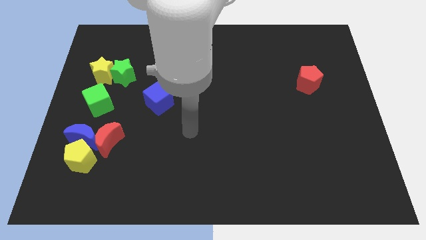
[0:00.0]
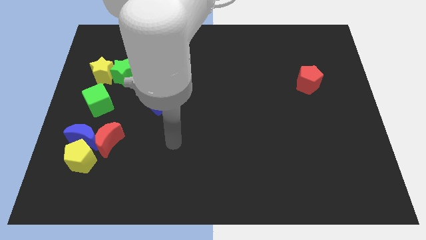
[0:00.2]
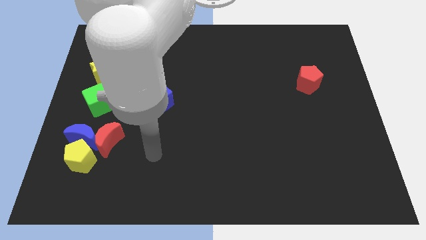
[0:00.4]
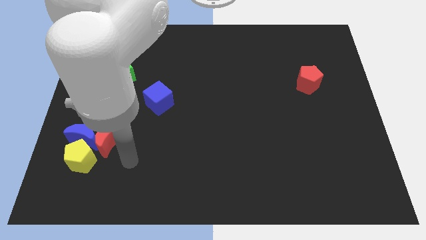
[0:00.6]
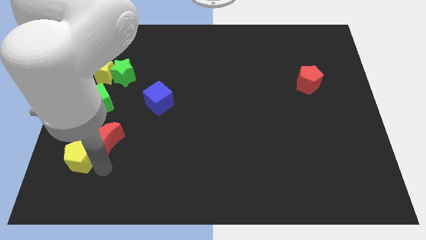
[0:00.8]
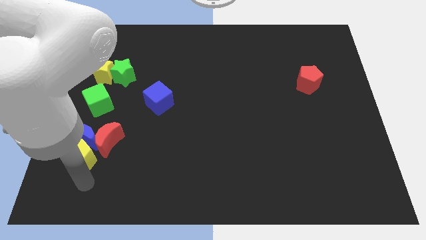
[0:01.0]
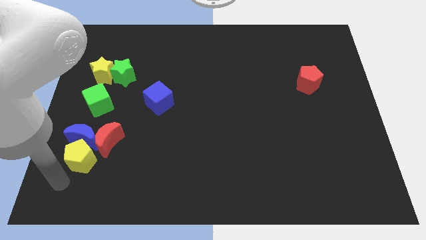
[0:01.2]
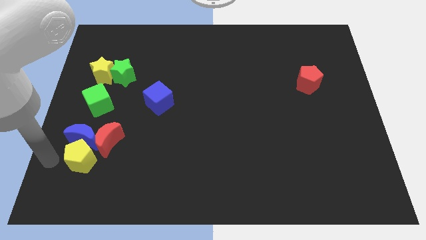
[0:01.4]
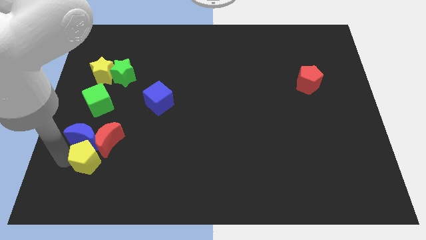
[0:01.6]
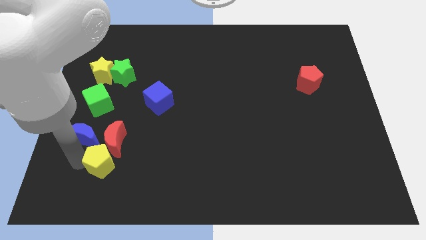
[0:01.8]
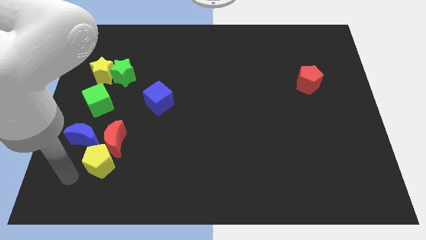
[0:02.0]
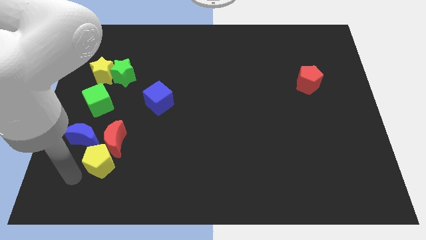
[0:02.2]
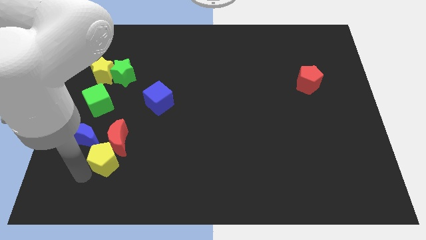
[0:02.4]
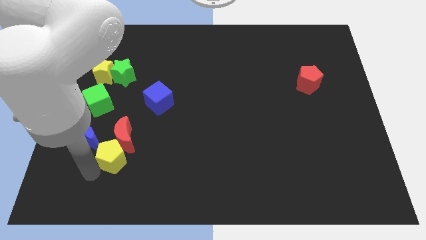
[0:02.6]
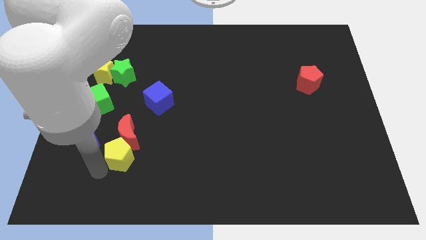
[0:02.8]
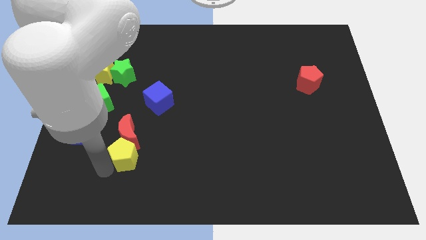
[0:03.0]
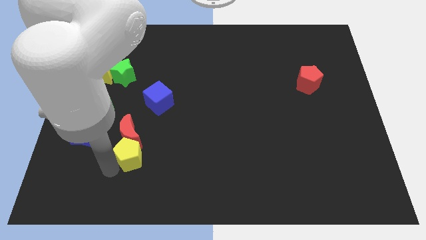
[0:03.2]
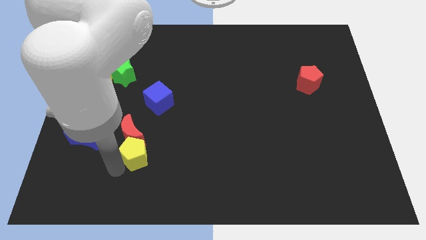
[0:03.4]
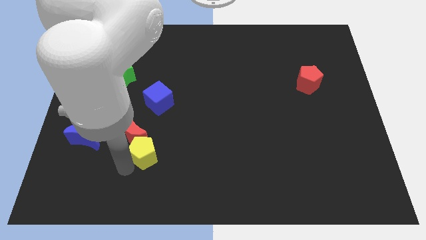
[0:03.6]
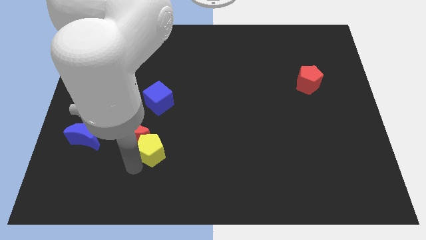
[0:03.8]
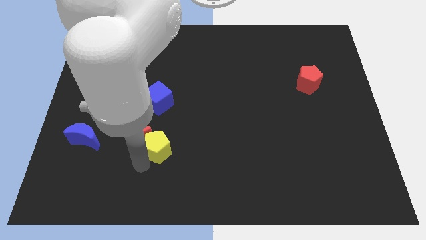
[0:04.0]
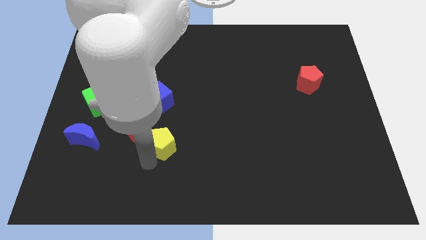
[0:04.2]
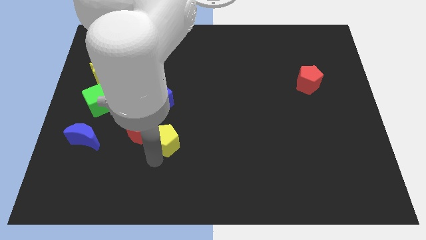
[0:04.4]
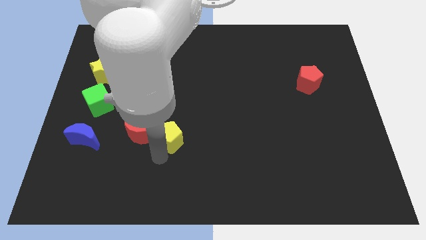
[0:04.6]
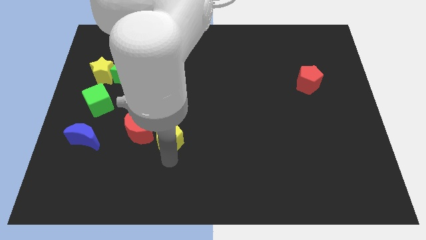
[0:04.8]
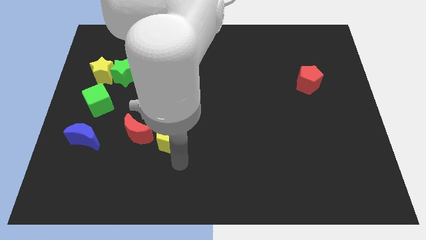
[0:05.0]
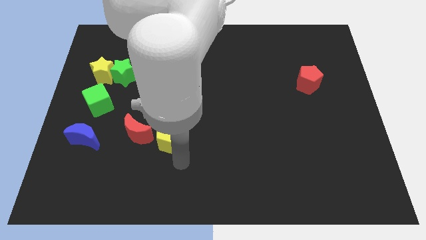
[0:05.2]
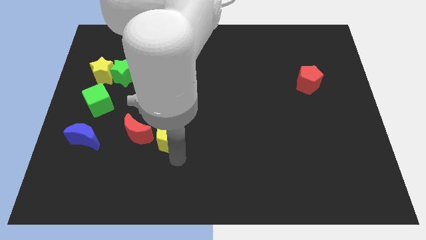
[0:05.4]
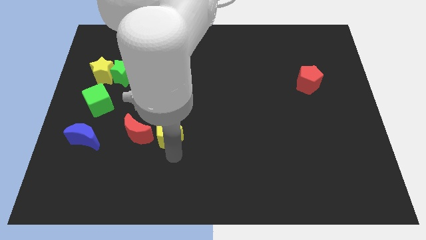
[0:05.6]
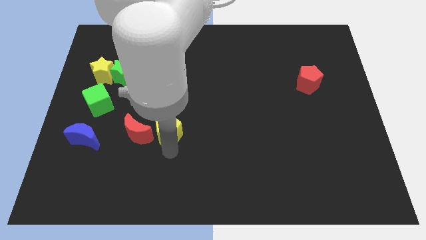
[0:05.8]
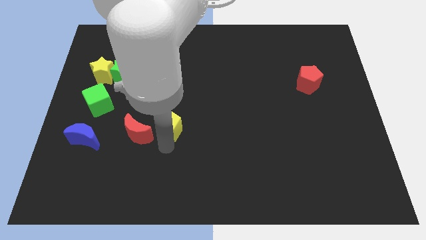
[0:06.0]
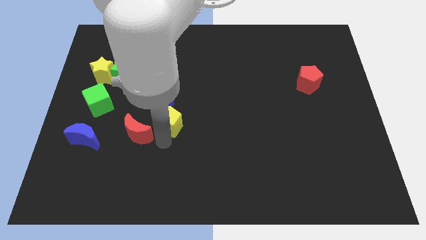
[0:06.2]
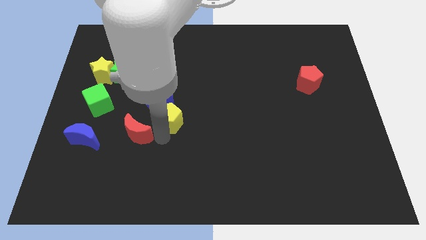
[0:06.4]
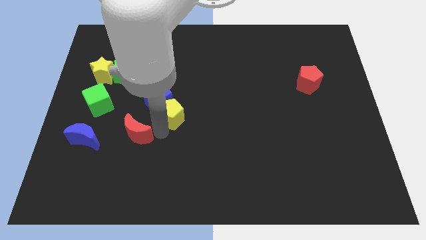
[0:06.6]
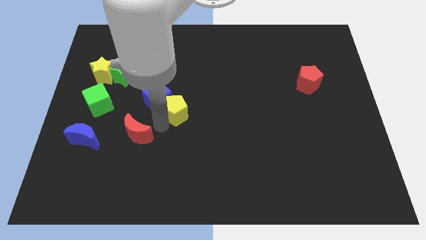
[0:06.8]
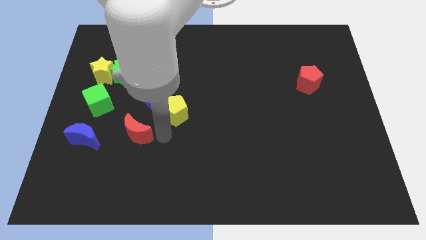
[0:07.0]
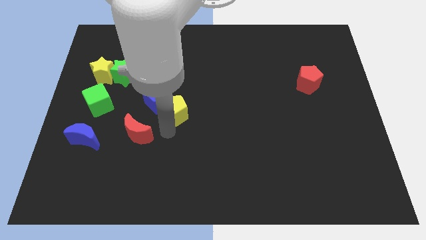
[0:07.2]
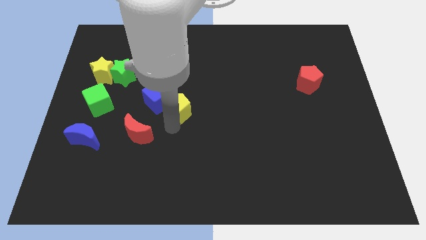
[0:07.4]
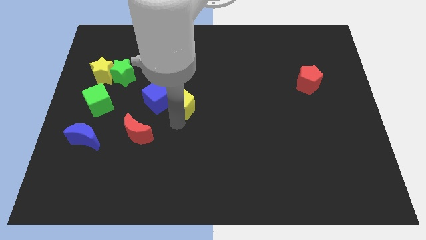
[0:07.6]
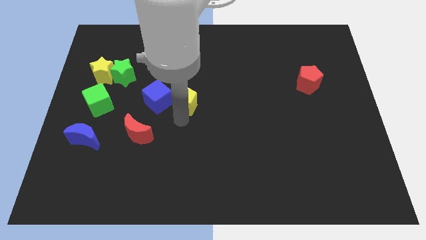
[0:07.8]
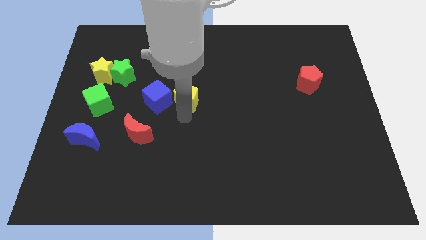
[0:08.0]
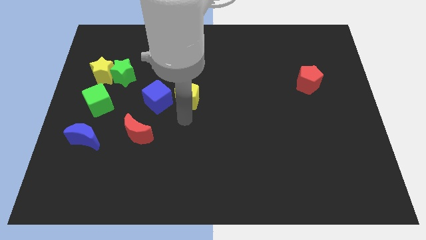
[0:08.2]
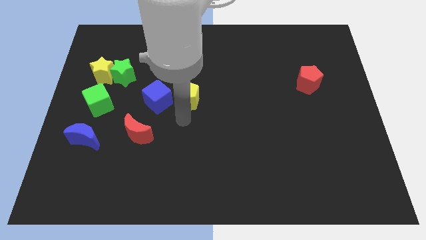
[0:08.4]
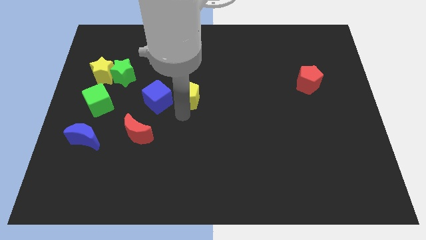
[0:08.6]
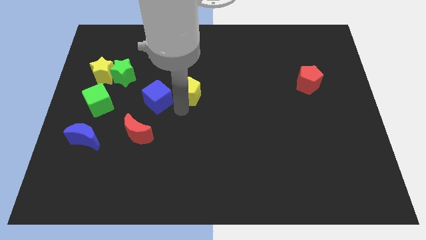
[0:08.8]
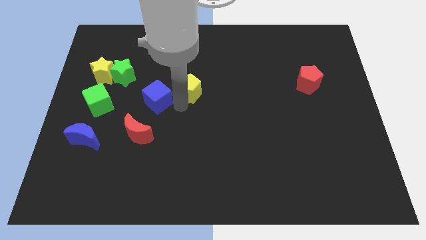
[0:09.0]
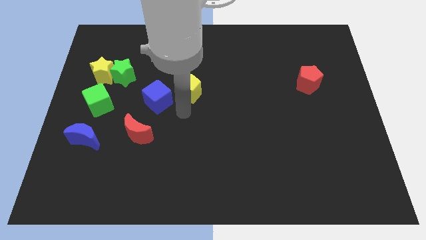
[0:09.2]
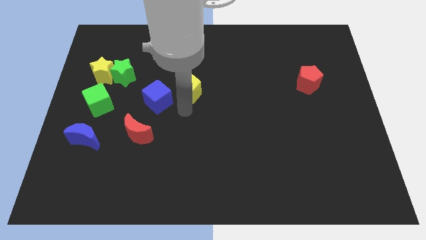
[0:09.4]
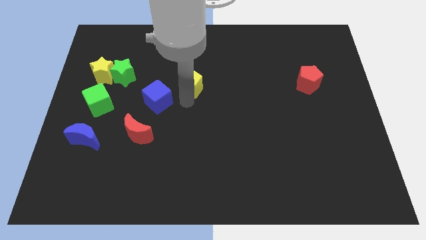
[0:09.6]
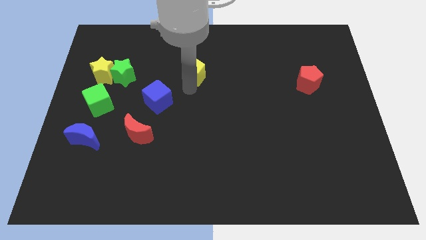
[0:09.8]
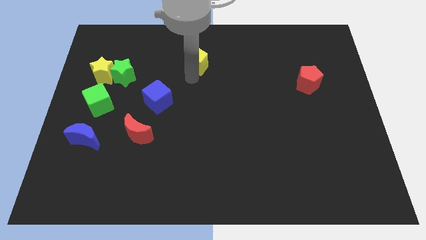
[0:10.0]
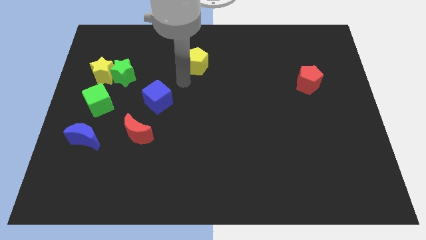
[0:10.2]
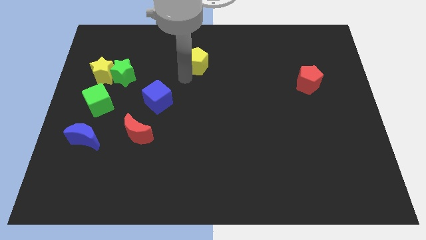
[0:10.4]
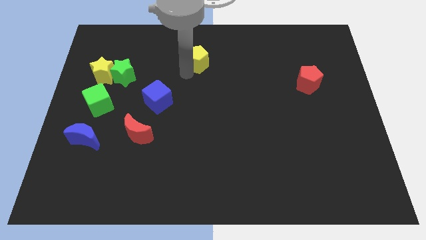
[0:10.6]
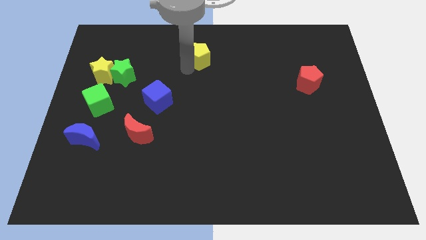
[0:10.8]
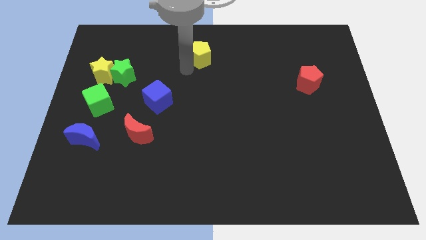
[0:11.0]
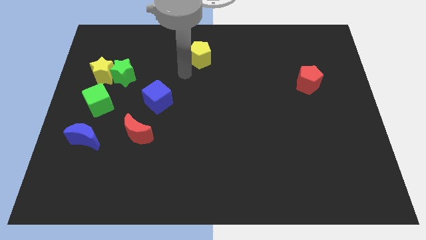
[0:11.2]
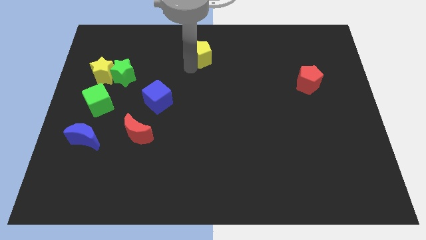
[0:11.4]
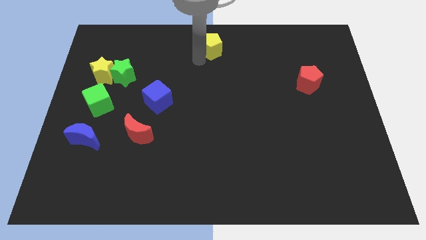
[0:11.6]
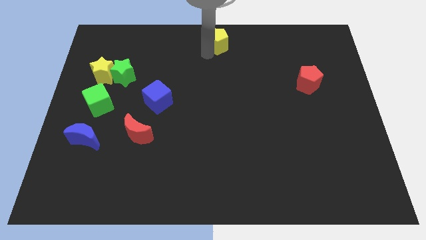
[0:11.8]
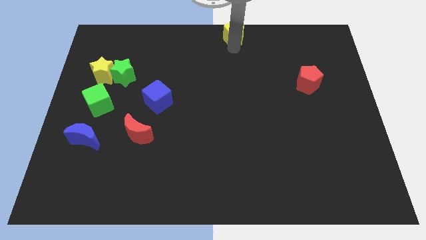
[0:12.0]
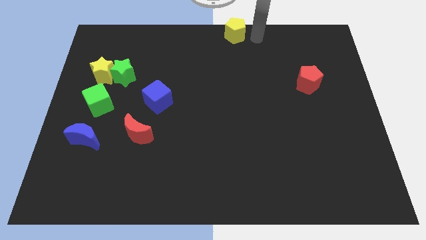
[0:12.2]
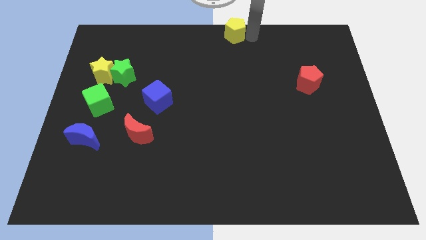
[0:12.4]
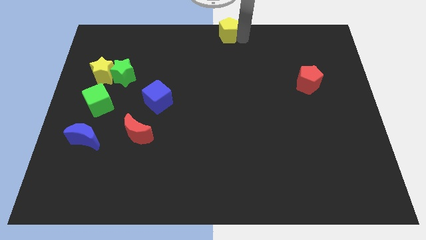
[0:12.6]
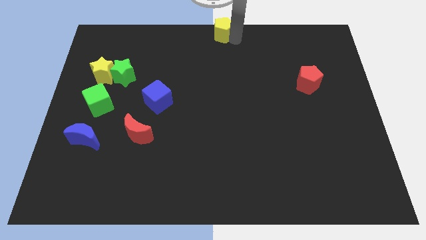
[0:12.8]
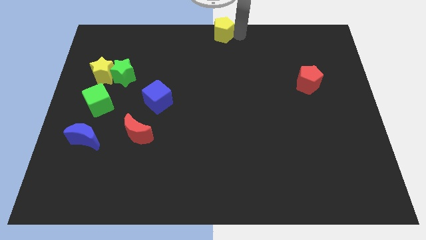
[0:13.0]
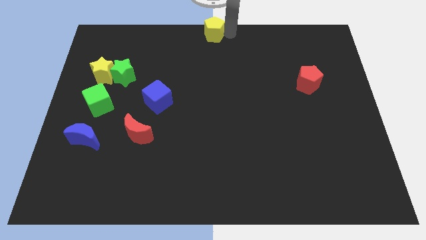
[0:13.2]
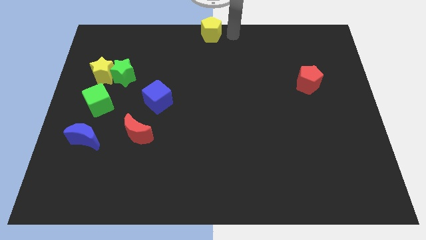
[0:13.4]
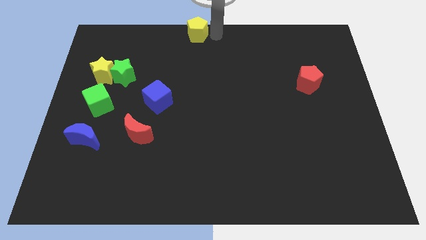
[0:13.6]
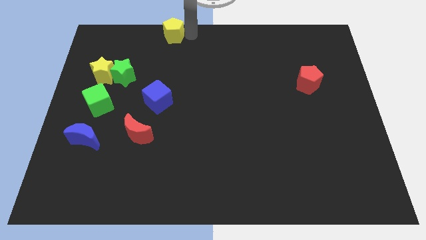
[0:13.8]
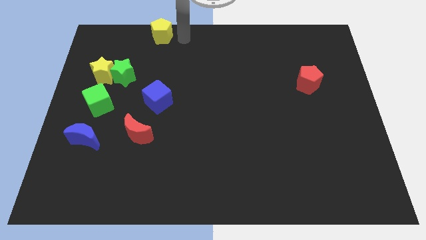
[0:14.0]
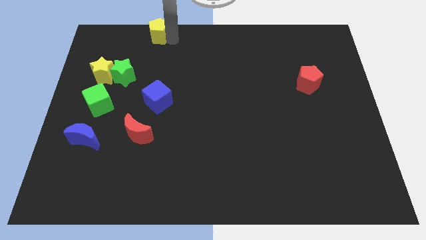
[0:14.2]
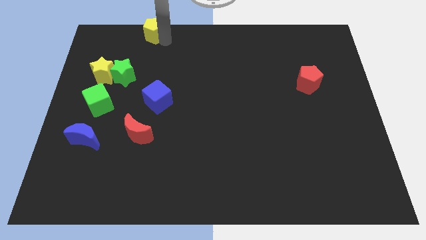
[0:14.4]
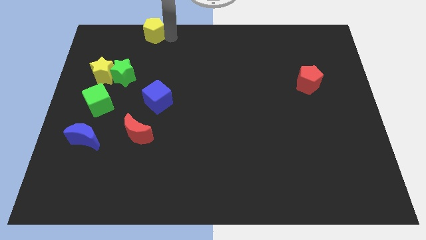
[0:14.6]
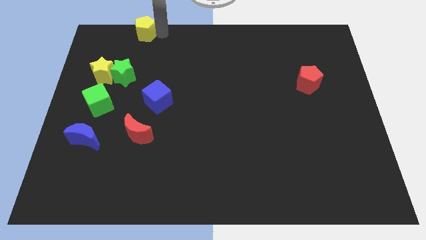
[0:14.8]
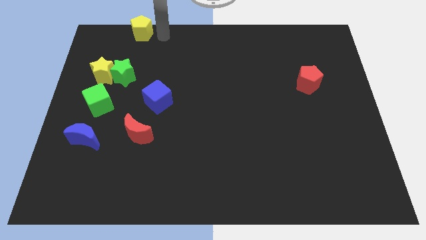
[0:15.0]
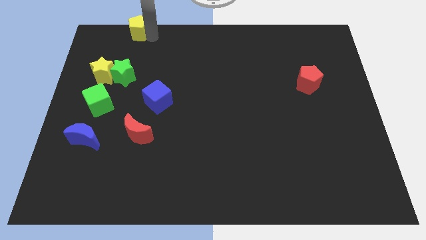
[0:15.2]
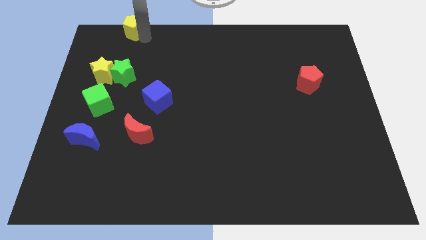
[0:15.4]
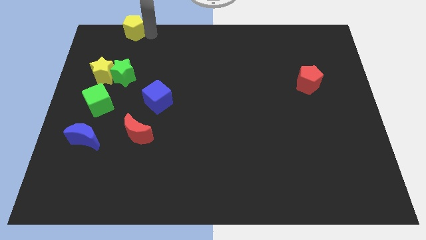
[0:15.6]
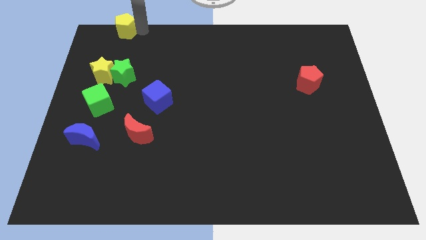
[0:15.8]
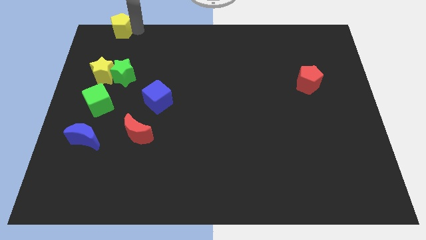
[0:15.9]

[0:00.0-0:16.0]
push the yellow pentagon to the top left corner
